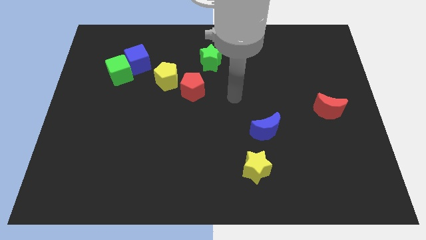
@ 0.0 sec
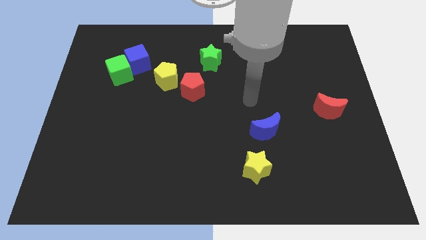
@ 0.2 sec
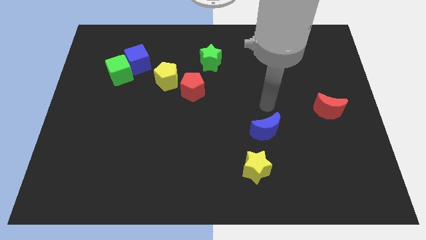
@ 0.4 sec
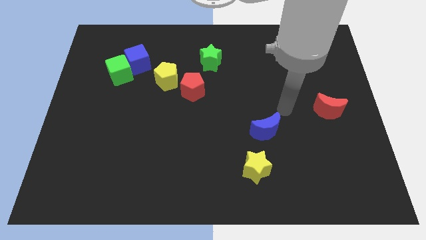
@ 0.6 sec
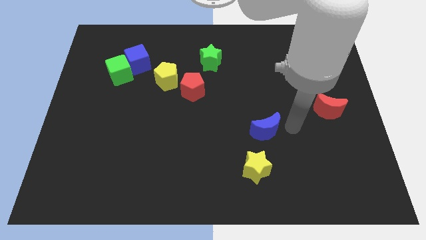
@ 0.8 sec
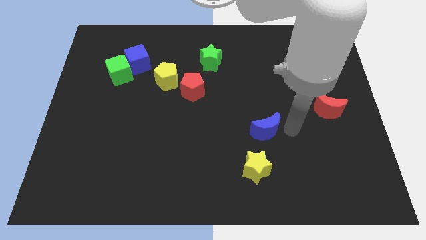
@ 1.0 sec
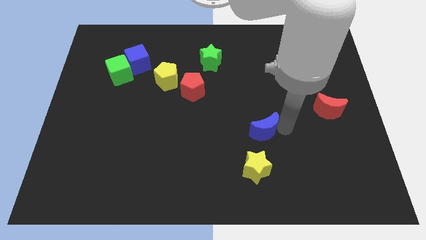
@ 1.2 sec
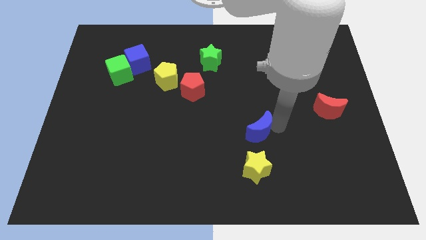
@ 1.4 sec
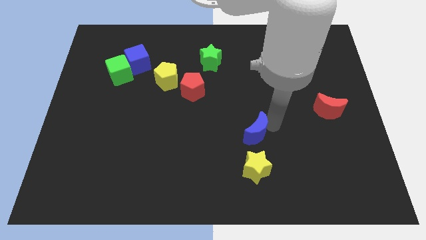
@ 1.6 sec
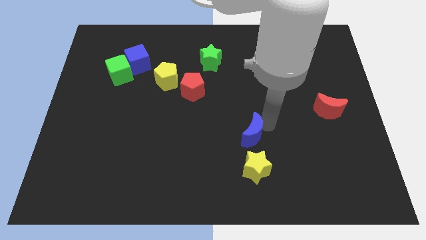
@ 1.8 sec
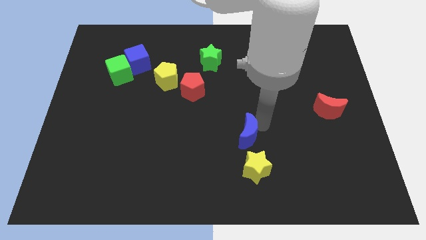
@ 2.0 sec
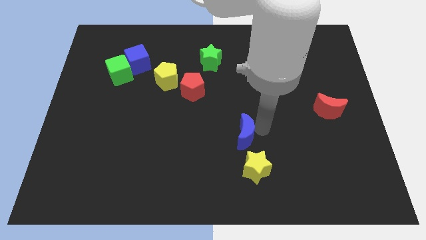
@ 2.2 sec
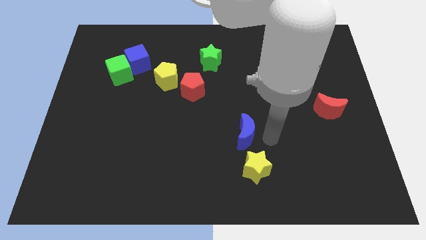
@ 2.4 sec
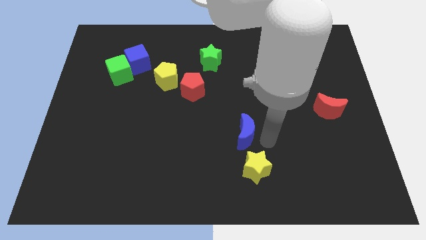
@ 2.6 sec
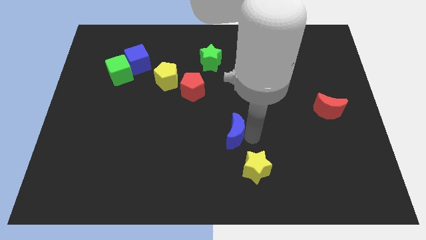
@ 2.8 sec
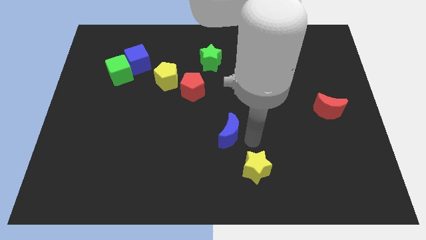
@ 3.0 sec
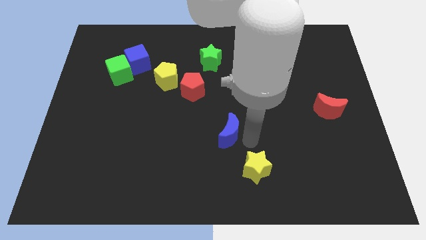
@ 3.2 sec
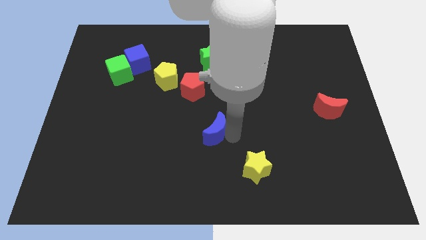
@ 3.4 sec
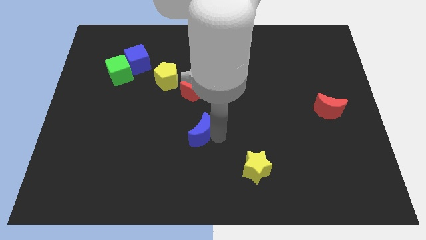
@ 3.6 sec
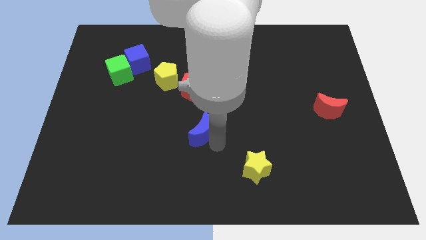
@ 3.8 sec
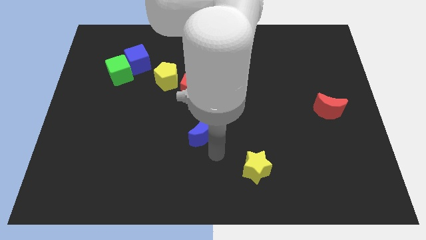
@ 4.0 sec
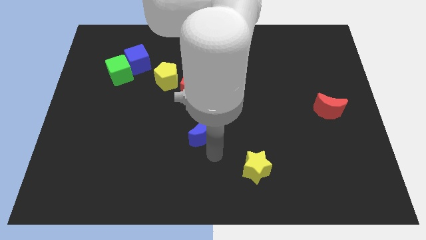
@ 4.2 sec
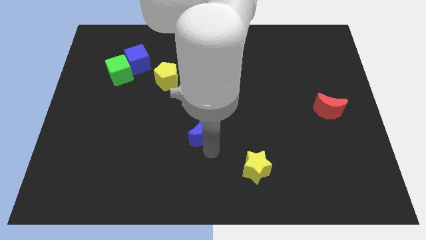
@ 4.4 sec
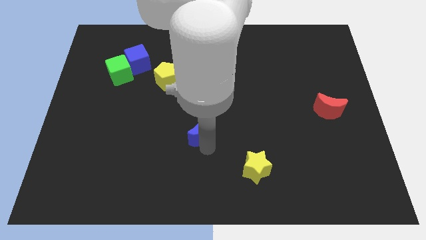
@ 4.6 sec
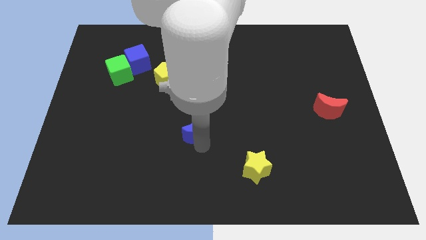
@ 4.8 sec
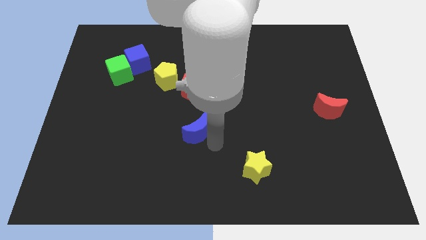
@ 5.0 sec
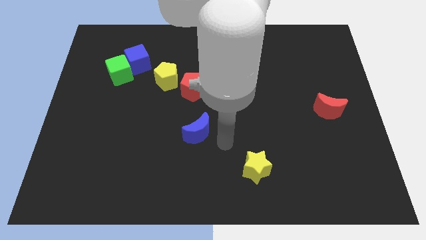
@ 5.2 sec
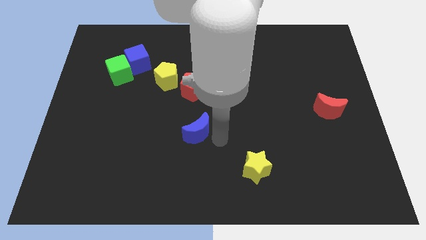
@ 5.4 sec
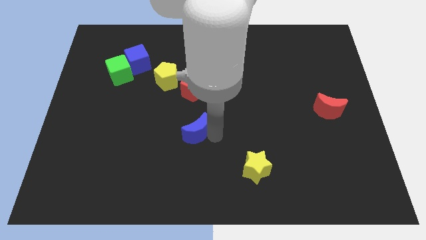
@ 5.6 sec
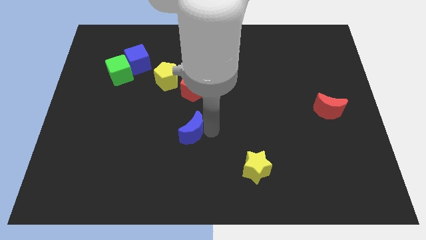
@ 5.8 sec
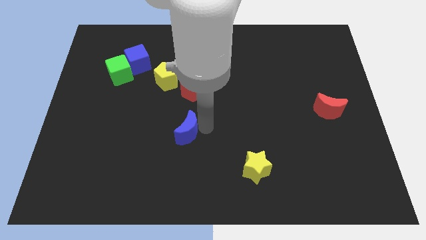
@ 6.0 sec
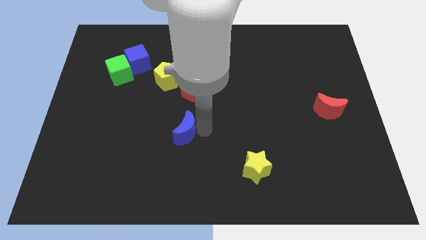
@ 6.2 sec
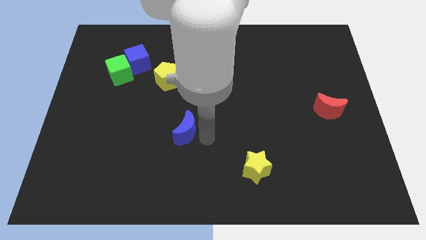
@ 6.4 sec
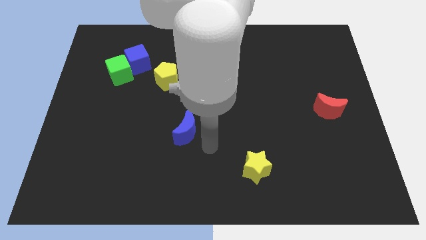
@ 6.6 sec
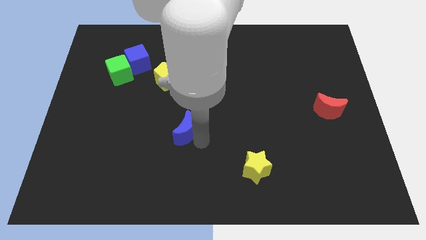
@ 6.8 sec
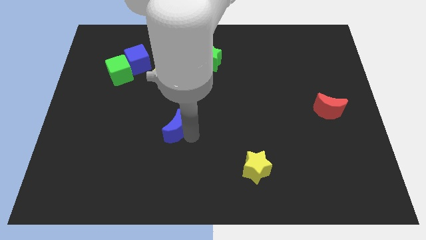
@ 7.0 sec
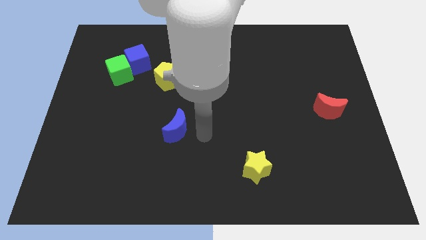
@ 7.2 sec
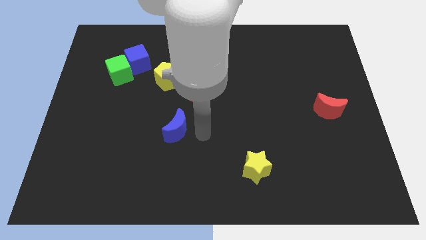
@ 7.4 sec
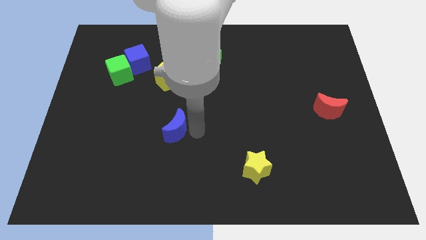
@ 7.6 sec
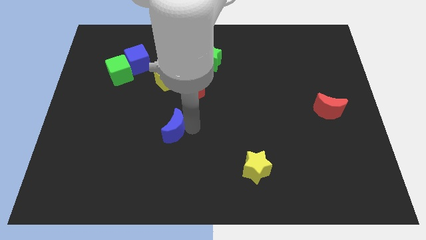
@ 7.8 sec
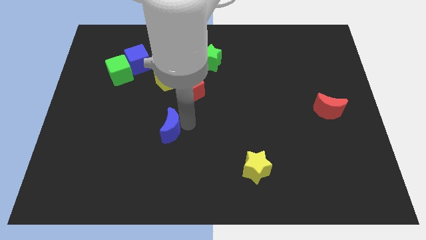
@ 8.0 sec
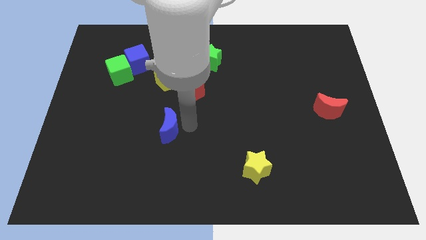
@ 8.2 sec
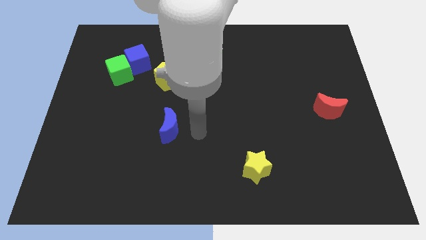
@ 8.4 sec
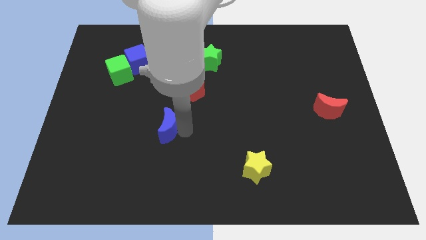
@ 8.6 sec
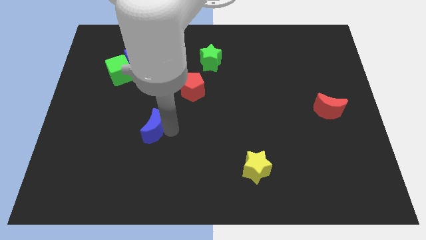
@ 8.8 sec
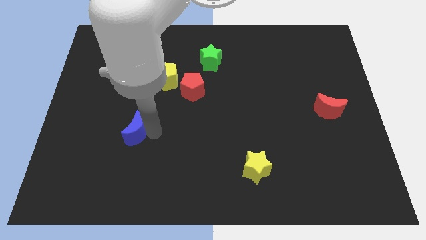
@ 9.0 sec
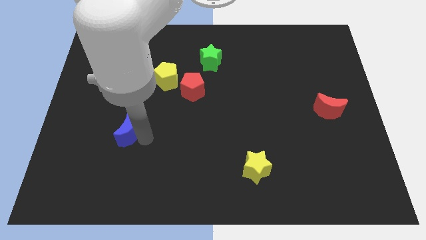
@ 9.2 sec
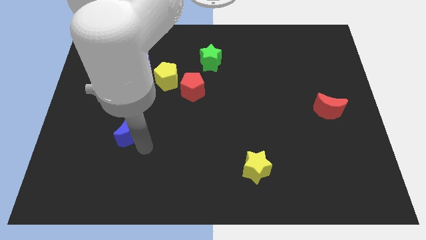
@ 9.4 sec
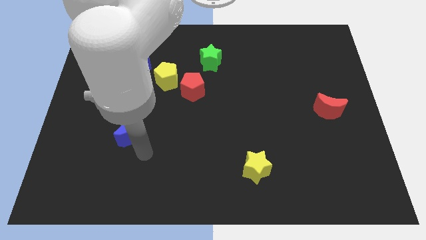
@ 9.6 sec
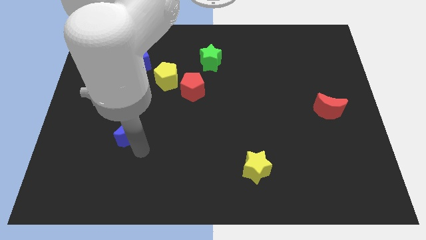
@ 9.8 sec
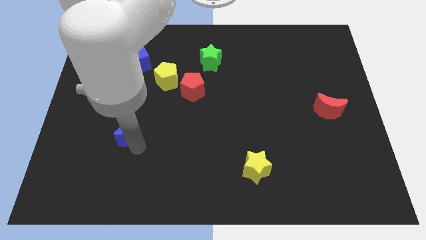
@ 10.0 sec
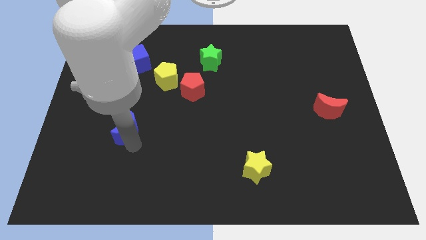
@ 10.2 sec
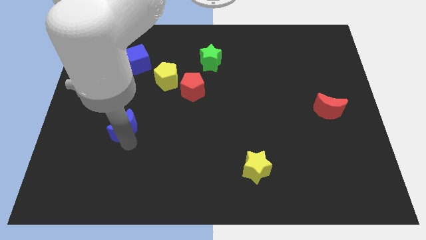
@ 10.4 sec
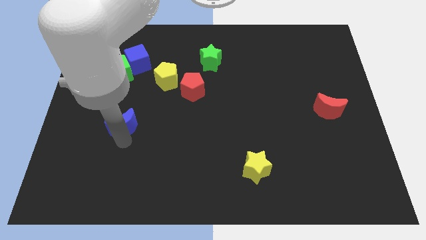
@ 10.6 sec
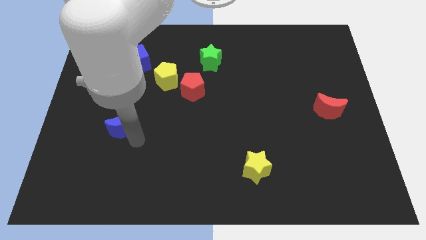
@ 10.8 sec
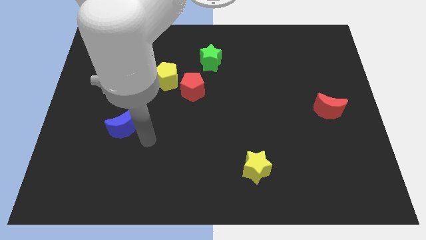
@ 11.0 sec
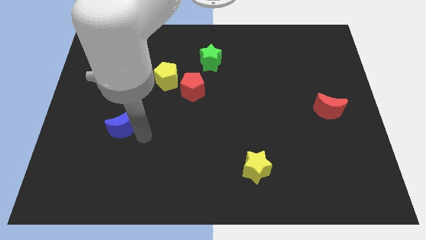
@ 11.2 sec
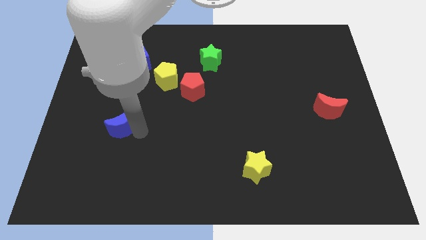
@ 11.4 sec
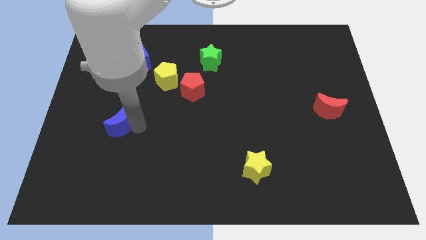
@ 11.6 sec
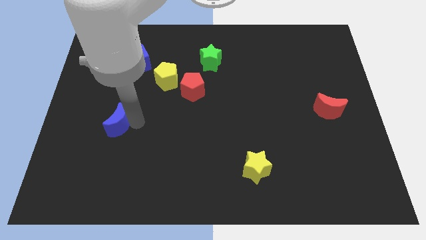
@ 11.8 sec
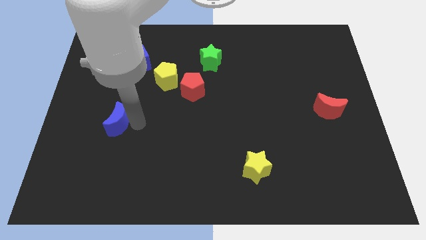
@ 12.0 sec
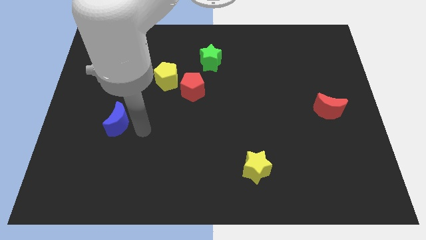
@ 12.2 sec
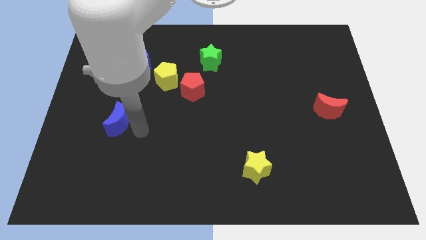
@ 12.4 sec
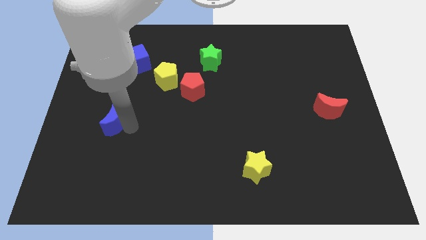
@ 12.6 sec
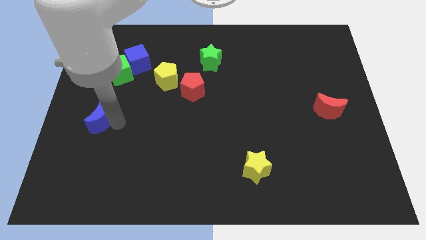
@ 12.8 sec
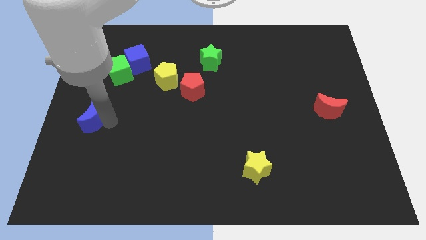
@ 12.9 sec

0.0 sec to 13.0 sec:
put the blue moon to the center left
